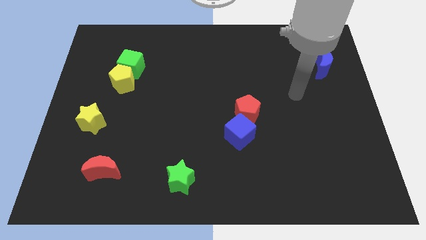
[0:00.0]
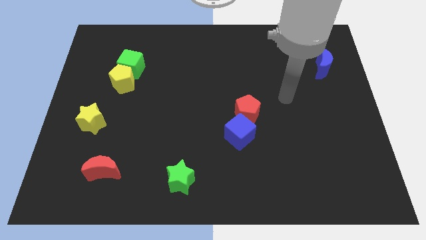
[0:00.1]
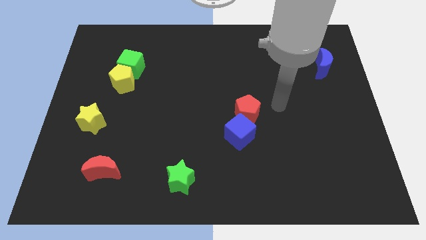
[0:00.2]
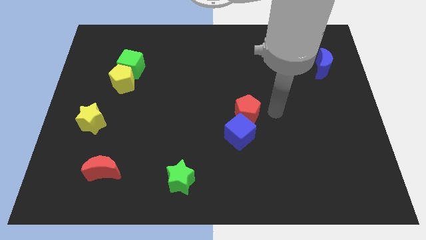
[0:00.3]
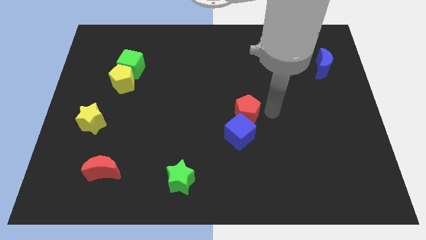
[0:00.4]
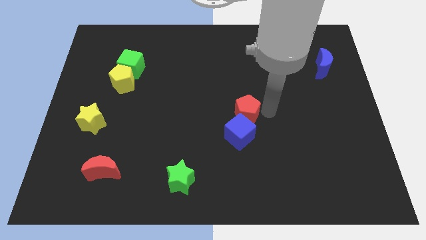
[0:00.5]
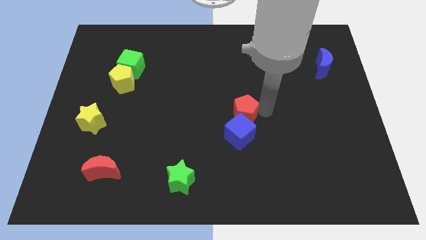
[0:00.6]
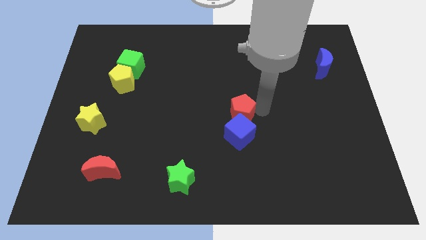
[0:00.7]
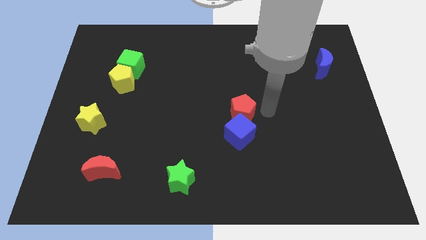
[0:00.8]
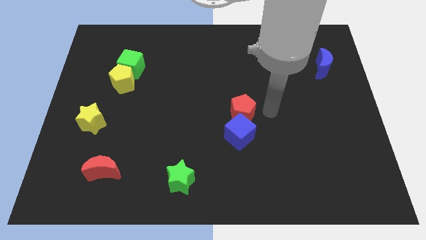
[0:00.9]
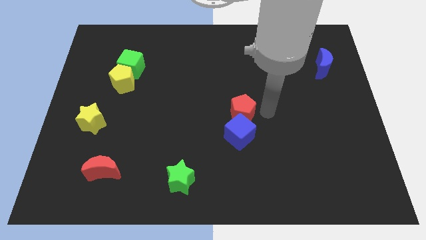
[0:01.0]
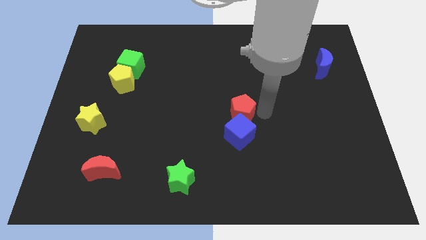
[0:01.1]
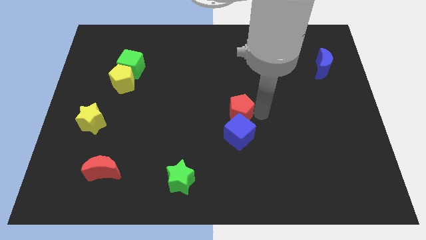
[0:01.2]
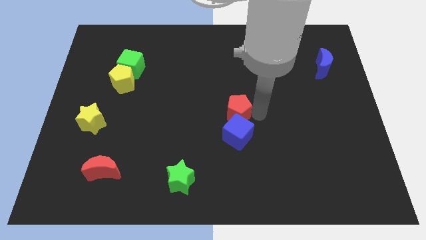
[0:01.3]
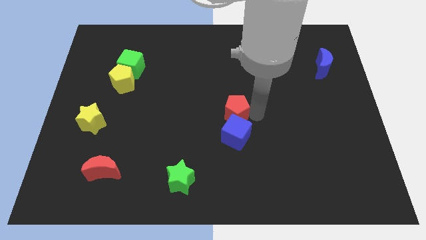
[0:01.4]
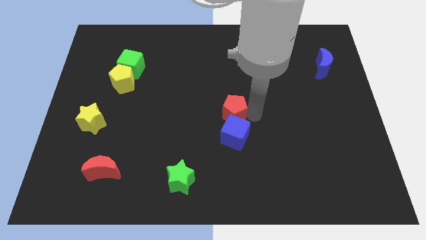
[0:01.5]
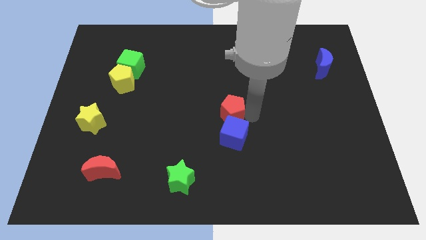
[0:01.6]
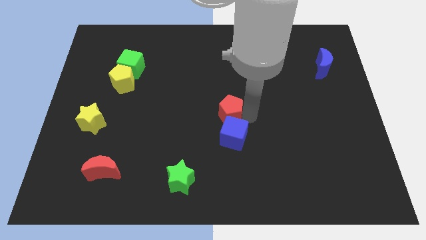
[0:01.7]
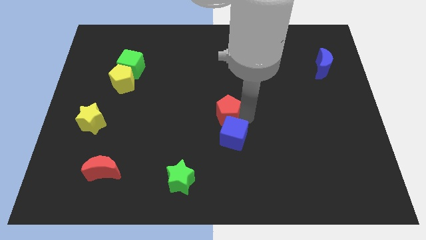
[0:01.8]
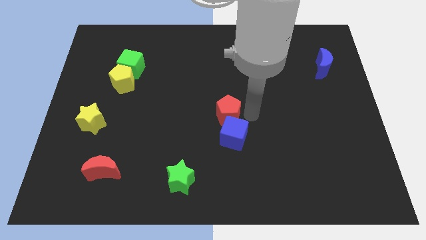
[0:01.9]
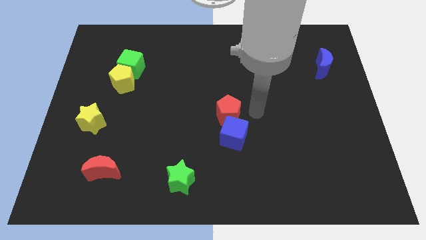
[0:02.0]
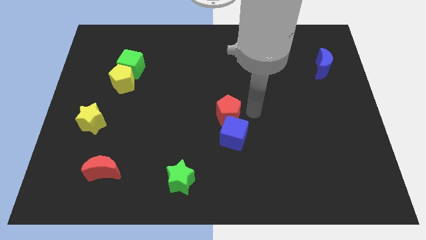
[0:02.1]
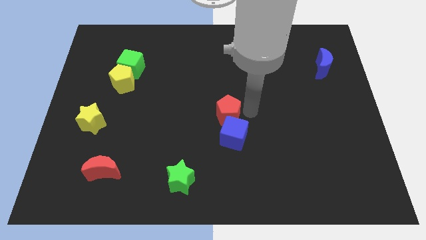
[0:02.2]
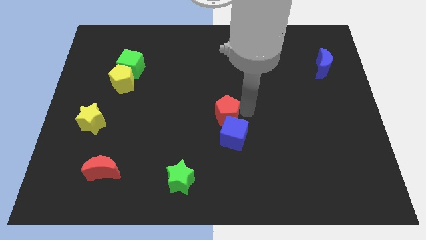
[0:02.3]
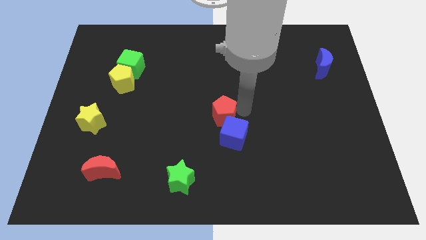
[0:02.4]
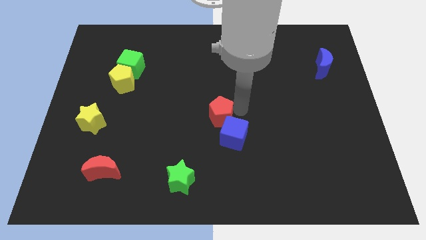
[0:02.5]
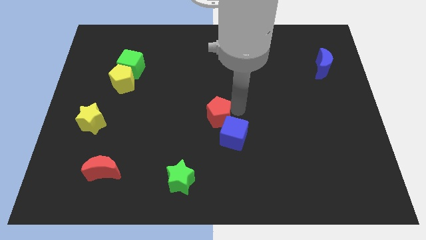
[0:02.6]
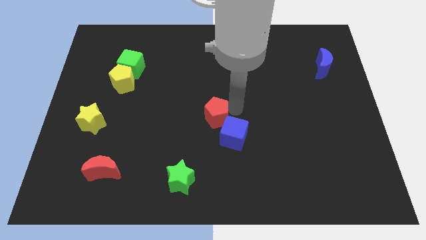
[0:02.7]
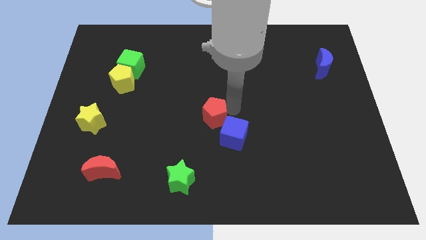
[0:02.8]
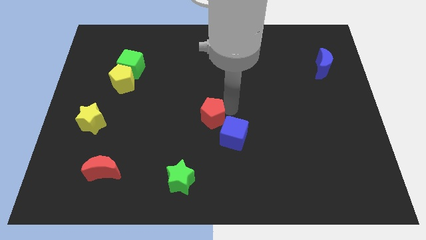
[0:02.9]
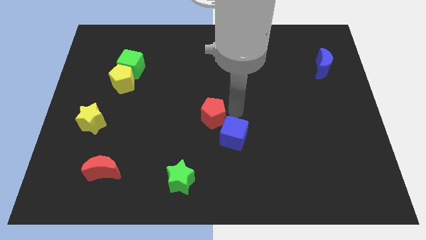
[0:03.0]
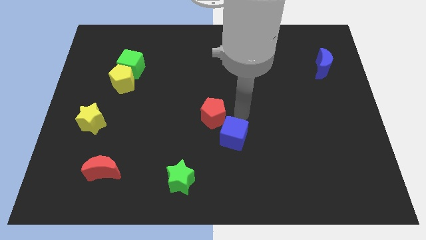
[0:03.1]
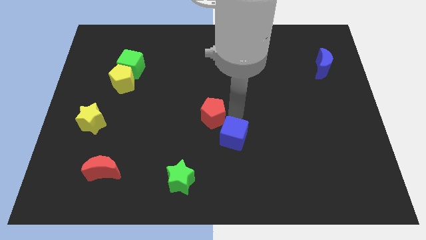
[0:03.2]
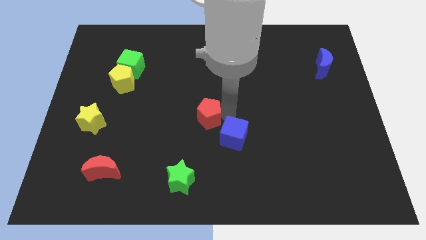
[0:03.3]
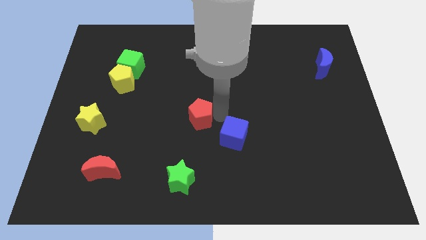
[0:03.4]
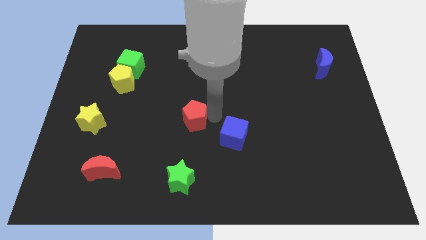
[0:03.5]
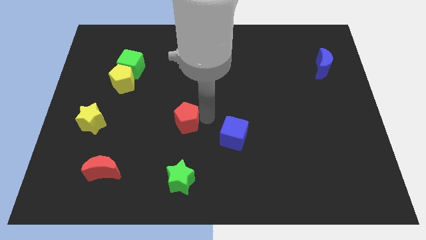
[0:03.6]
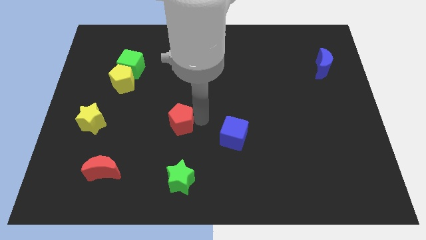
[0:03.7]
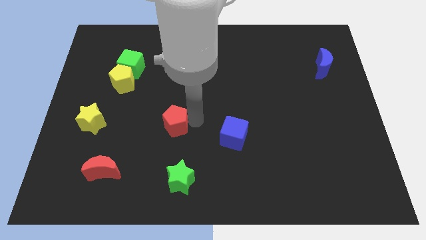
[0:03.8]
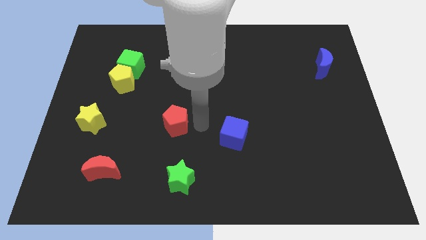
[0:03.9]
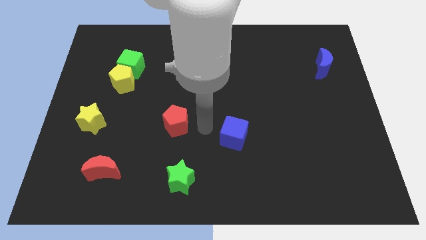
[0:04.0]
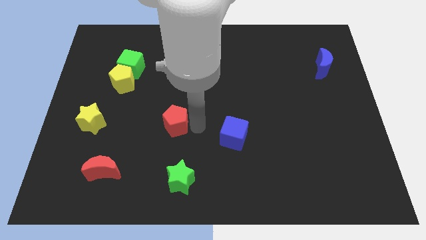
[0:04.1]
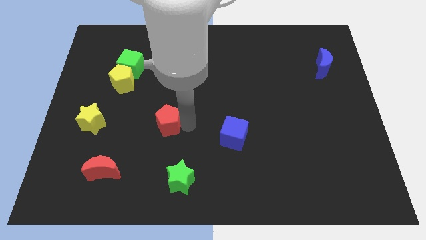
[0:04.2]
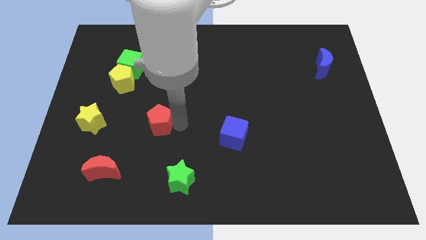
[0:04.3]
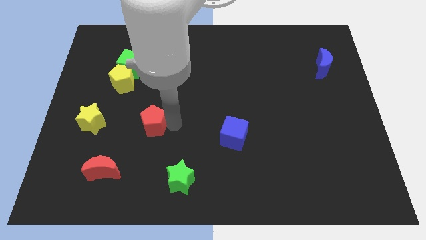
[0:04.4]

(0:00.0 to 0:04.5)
slide the red pentagon left

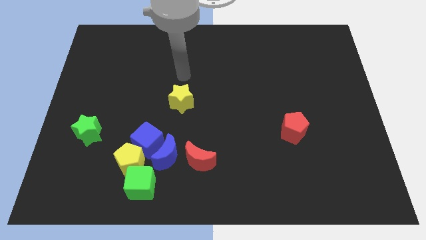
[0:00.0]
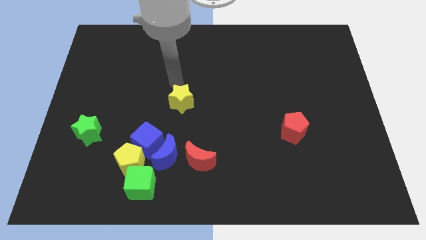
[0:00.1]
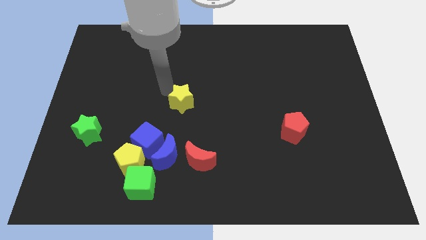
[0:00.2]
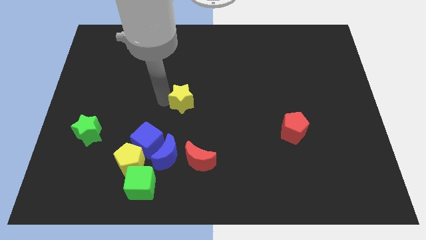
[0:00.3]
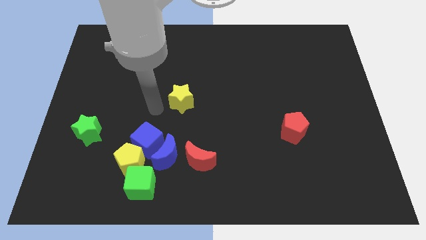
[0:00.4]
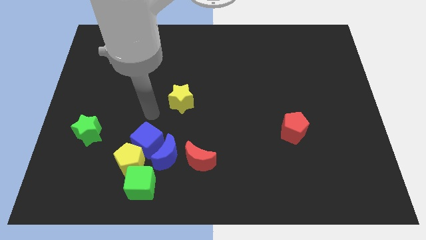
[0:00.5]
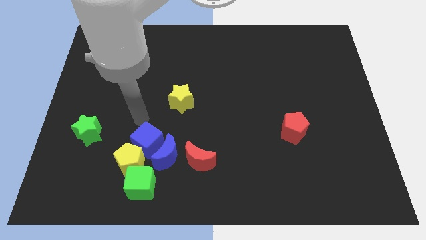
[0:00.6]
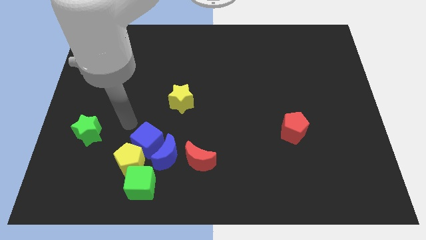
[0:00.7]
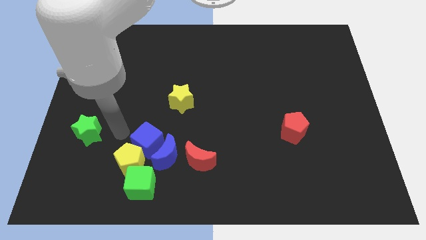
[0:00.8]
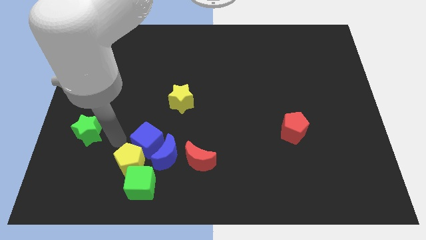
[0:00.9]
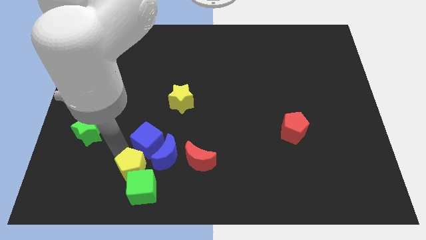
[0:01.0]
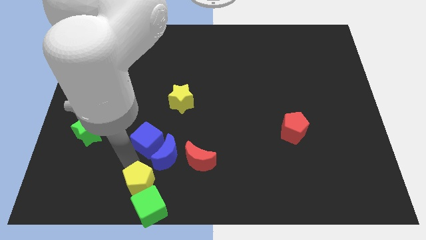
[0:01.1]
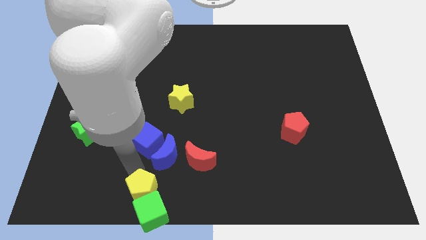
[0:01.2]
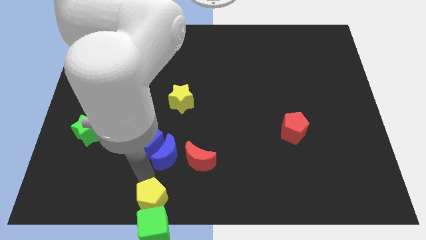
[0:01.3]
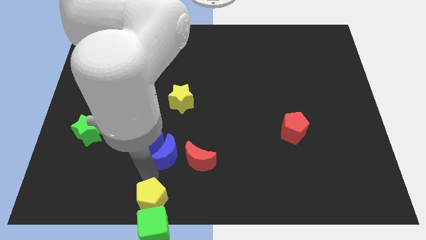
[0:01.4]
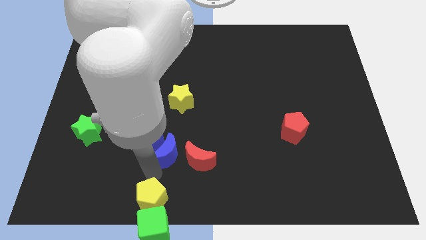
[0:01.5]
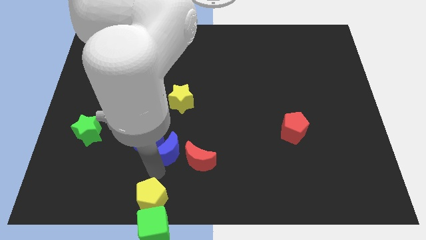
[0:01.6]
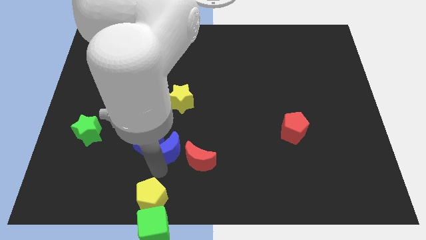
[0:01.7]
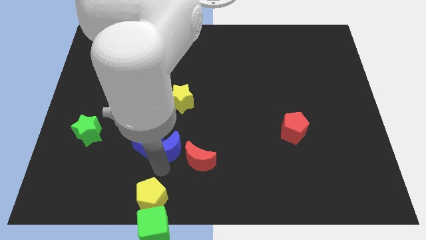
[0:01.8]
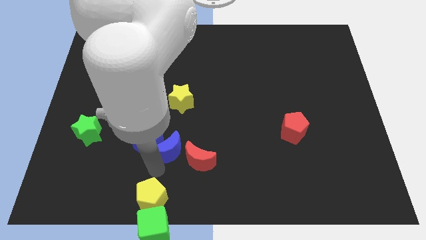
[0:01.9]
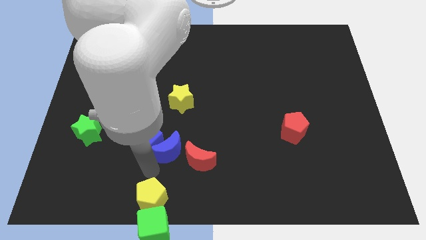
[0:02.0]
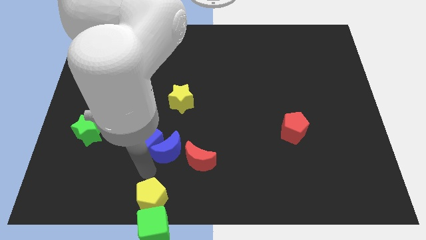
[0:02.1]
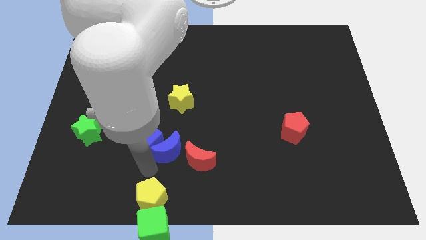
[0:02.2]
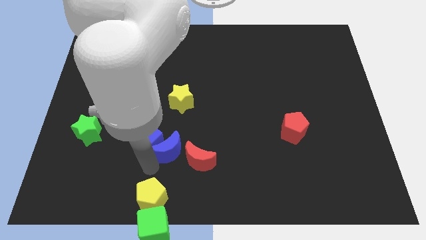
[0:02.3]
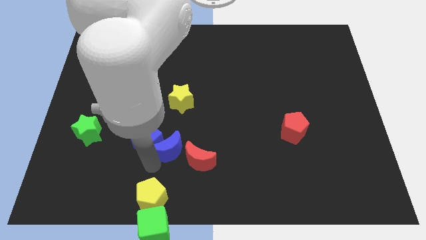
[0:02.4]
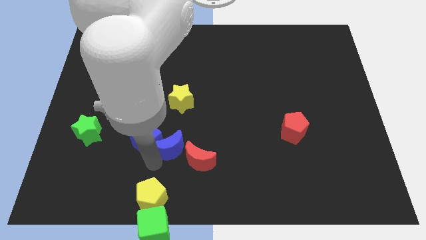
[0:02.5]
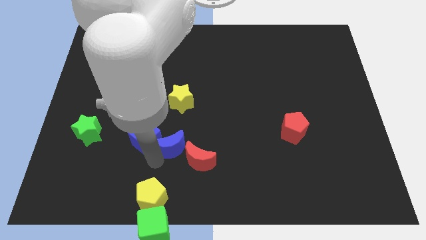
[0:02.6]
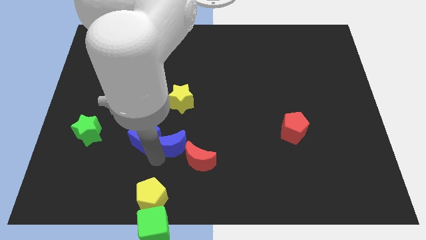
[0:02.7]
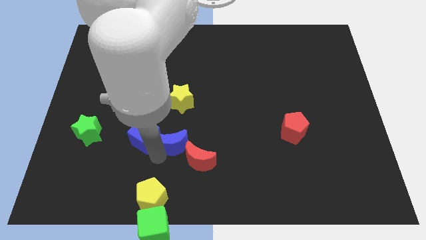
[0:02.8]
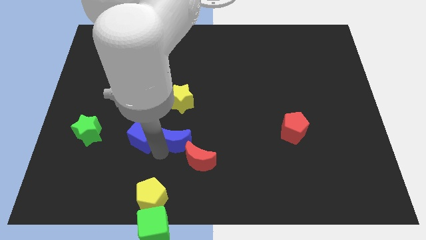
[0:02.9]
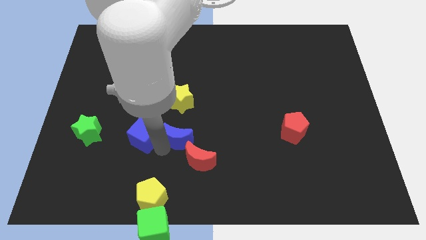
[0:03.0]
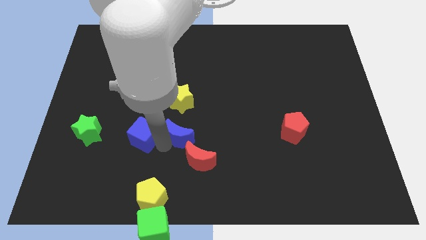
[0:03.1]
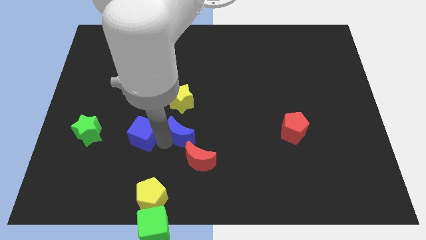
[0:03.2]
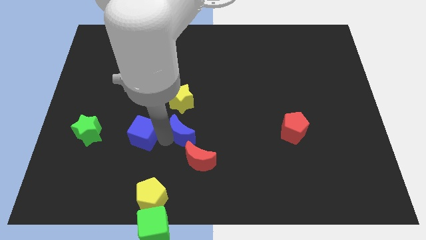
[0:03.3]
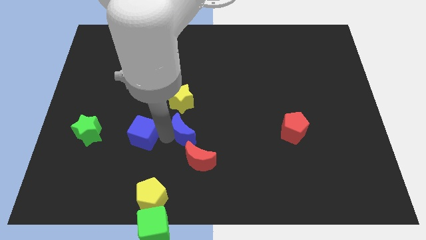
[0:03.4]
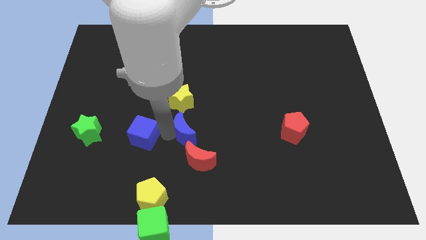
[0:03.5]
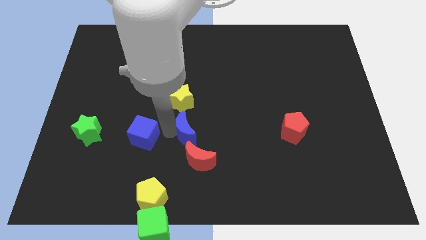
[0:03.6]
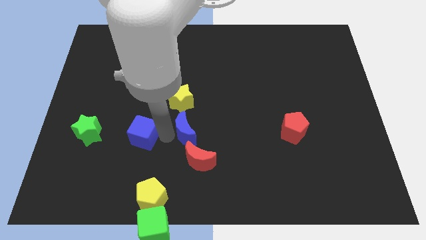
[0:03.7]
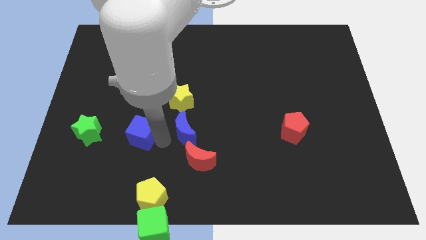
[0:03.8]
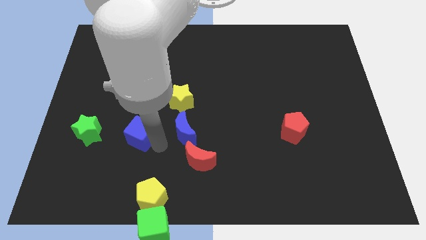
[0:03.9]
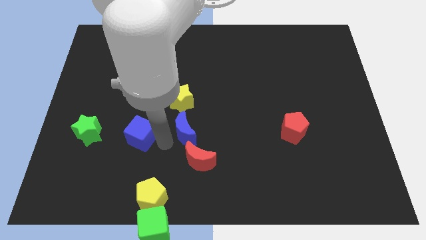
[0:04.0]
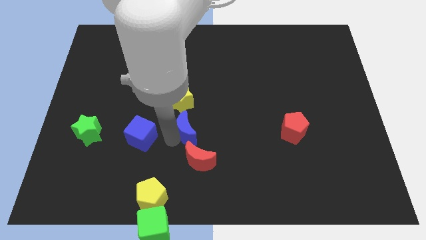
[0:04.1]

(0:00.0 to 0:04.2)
slightly move the blue moon upwards and then right
